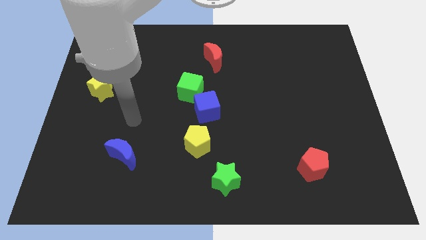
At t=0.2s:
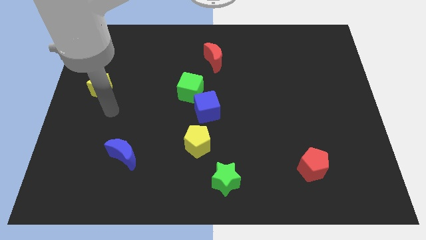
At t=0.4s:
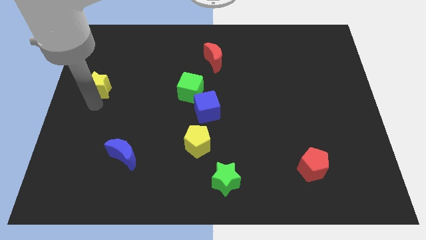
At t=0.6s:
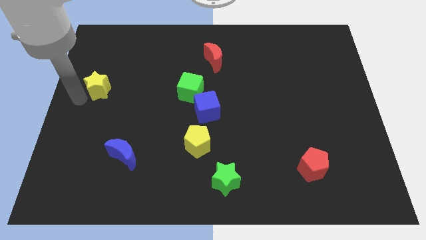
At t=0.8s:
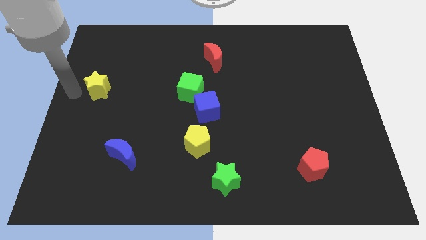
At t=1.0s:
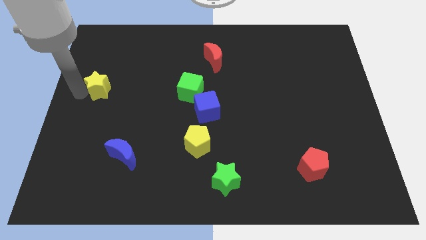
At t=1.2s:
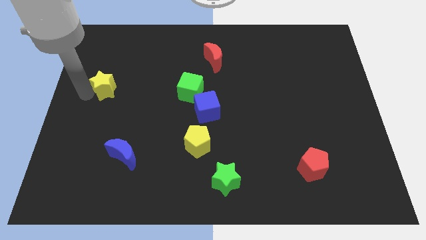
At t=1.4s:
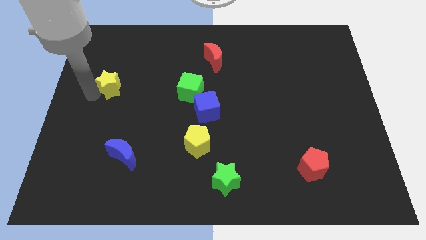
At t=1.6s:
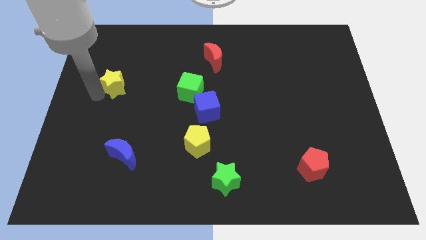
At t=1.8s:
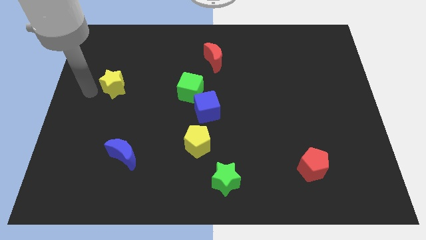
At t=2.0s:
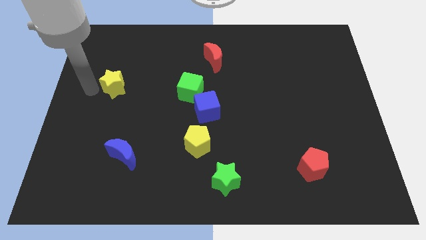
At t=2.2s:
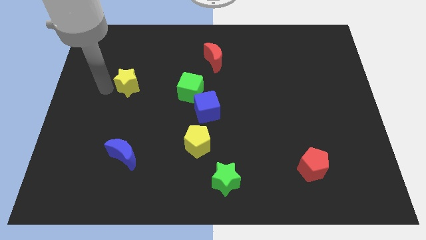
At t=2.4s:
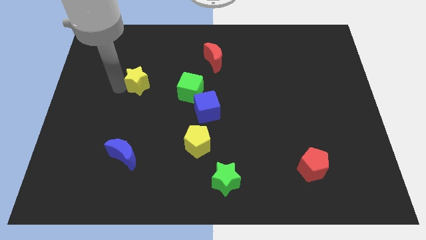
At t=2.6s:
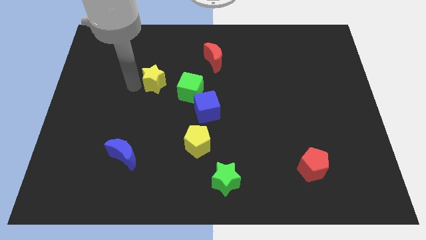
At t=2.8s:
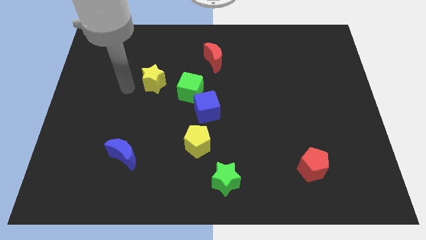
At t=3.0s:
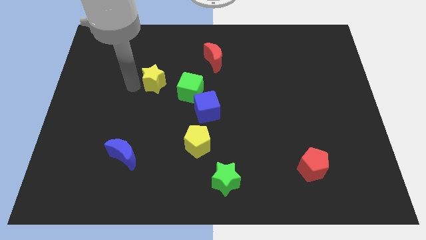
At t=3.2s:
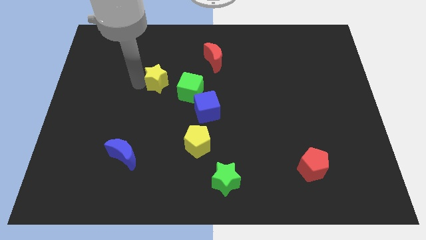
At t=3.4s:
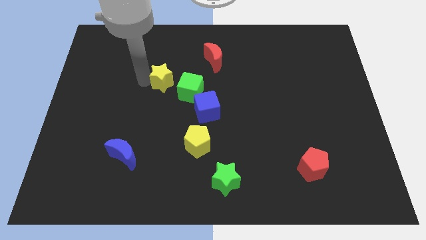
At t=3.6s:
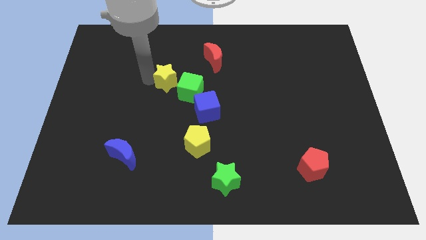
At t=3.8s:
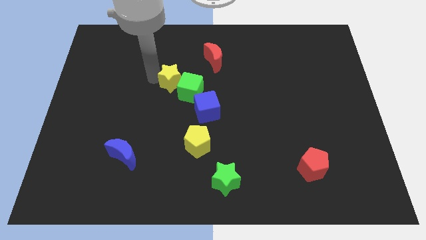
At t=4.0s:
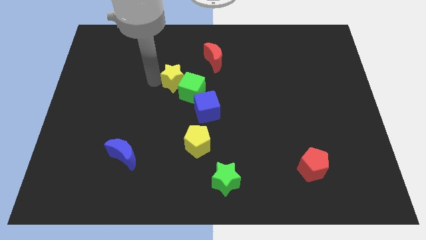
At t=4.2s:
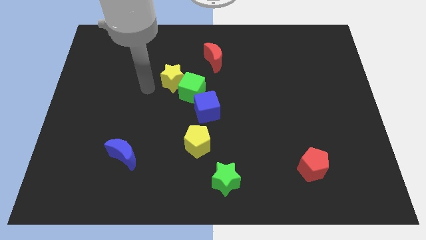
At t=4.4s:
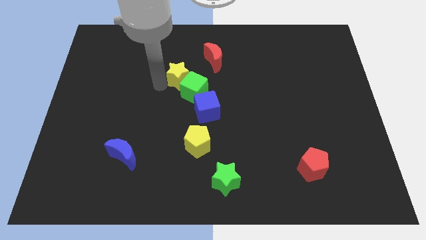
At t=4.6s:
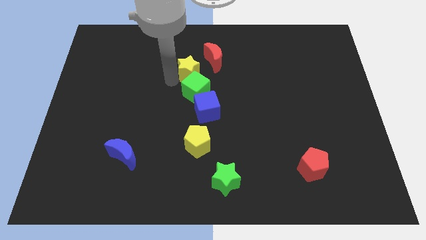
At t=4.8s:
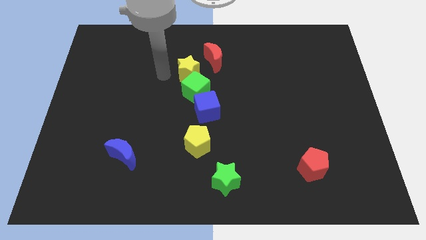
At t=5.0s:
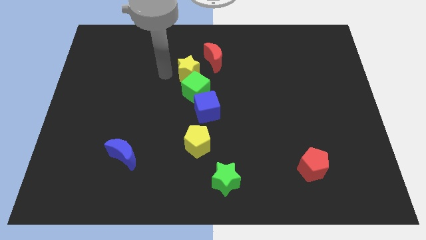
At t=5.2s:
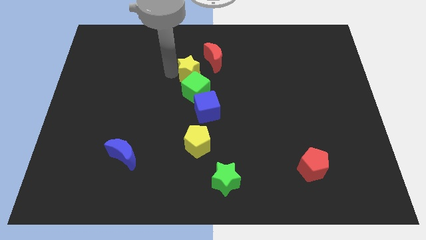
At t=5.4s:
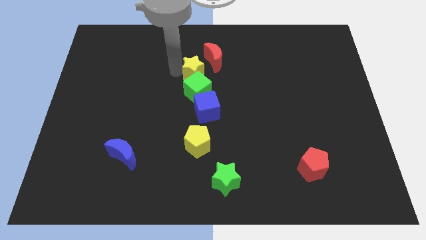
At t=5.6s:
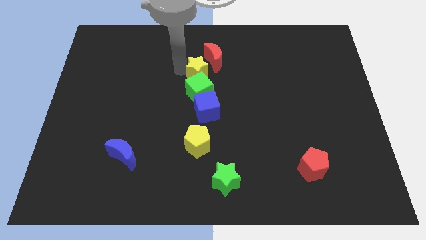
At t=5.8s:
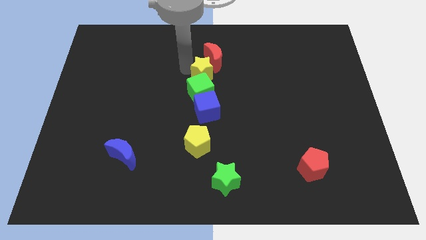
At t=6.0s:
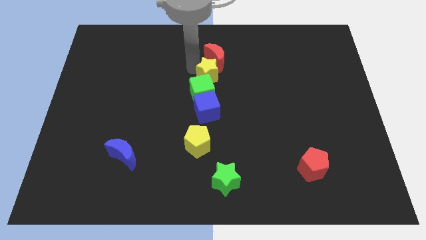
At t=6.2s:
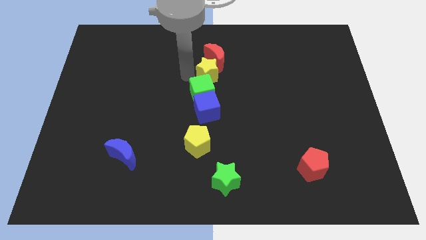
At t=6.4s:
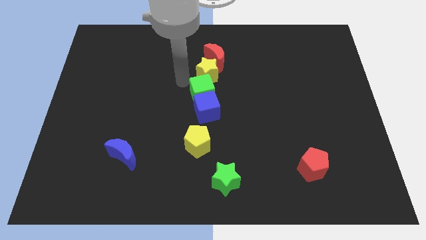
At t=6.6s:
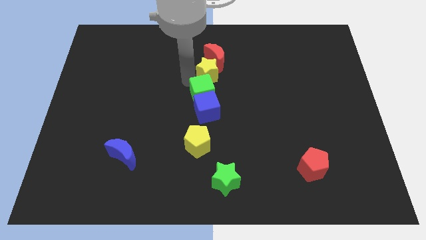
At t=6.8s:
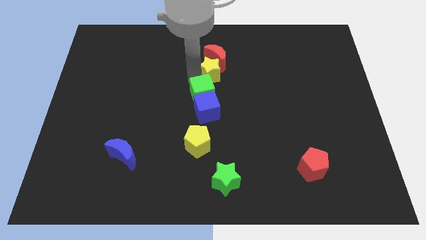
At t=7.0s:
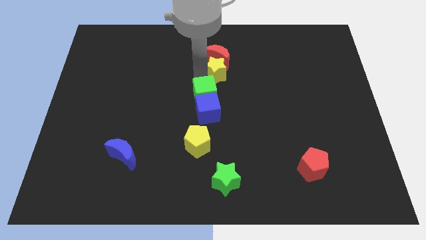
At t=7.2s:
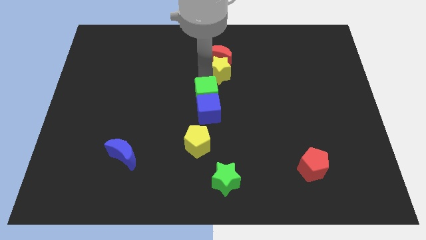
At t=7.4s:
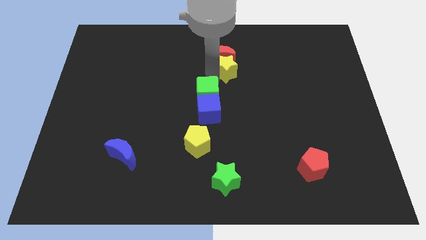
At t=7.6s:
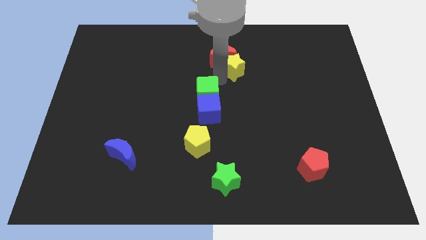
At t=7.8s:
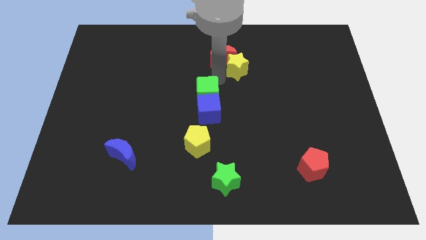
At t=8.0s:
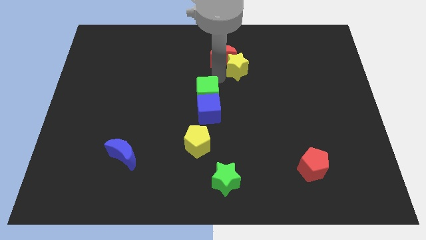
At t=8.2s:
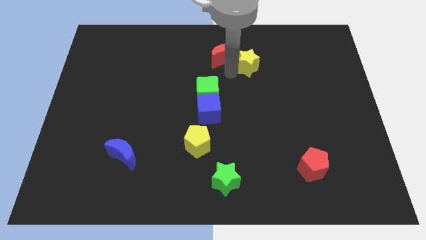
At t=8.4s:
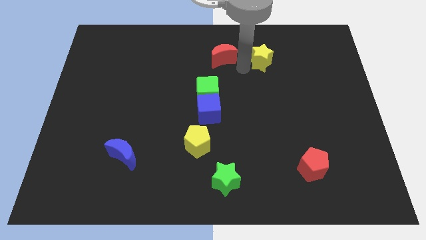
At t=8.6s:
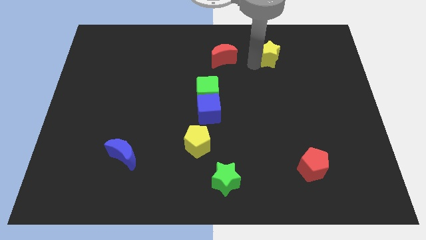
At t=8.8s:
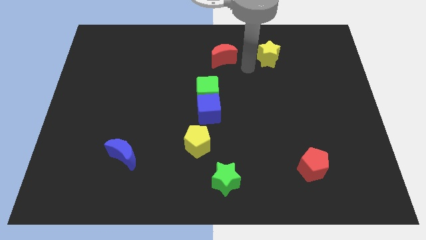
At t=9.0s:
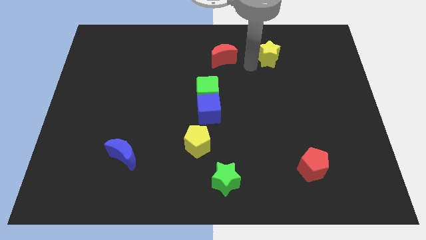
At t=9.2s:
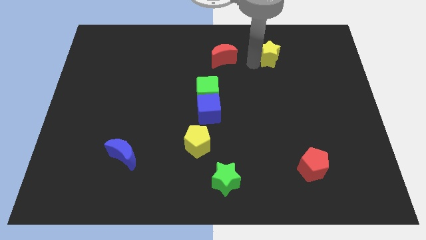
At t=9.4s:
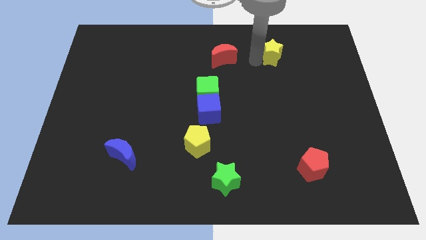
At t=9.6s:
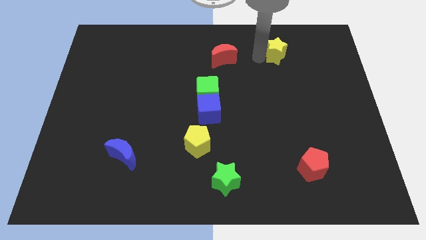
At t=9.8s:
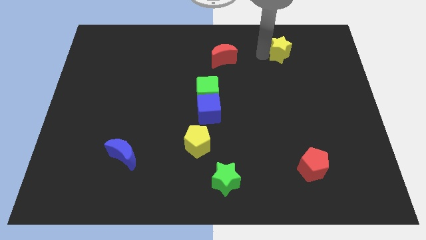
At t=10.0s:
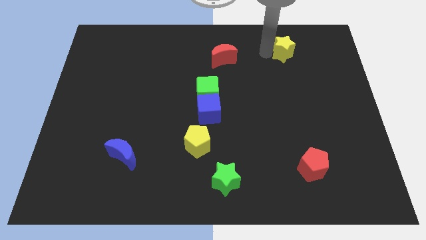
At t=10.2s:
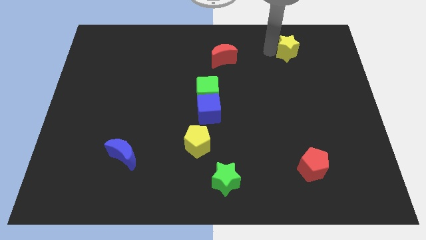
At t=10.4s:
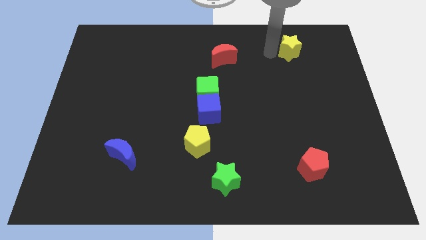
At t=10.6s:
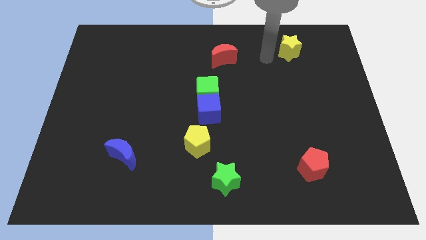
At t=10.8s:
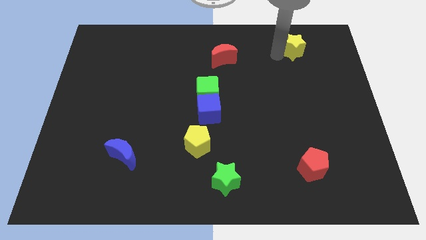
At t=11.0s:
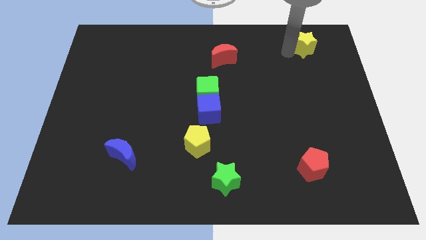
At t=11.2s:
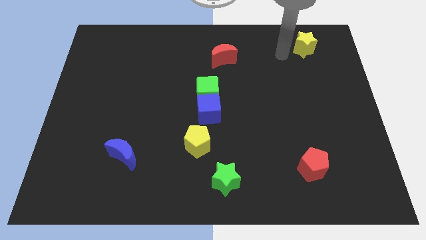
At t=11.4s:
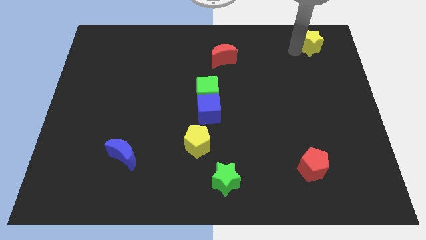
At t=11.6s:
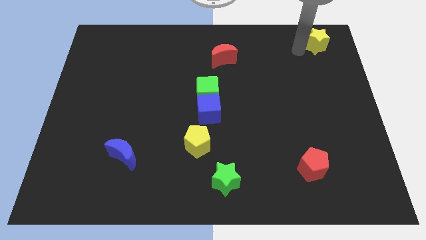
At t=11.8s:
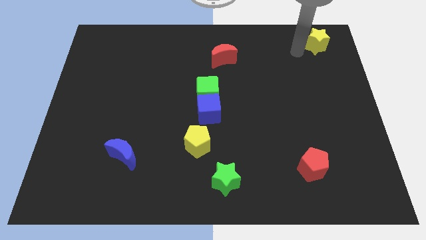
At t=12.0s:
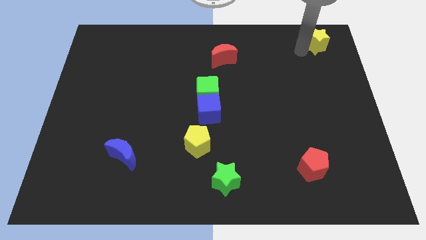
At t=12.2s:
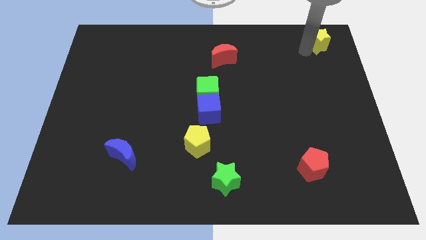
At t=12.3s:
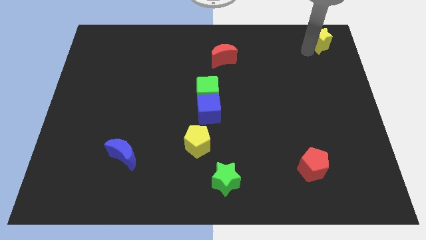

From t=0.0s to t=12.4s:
slide the yellow star to the top right
